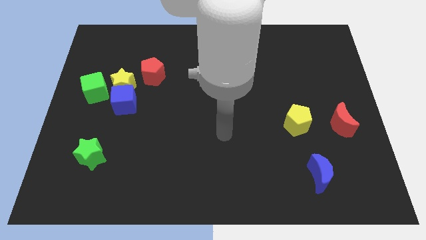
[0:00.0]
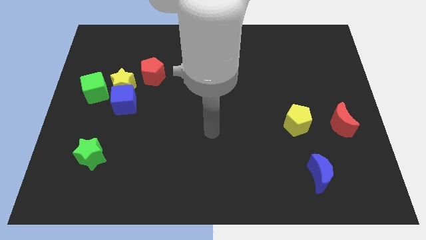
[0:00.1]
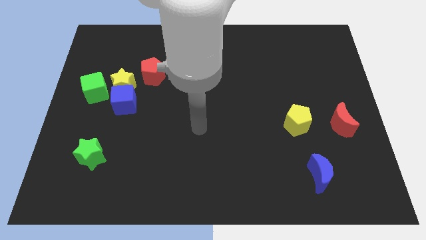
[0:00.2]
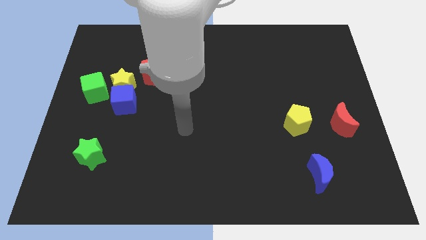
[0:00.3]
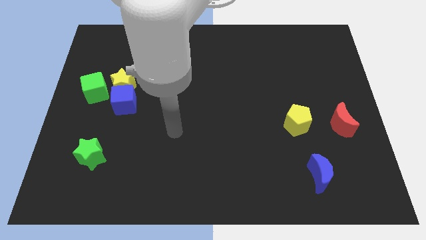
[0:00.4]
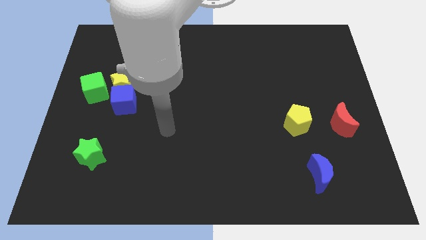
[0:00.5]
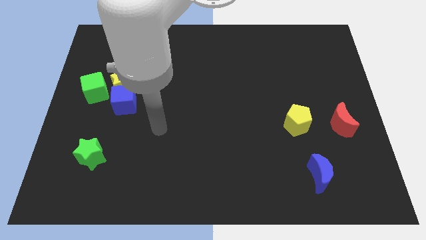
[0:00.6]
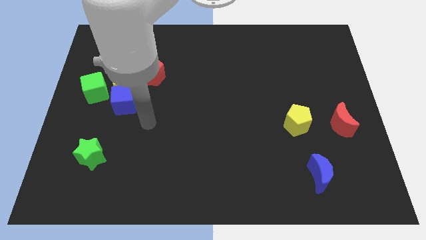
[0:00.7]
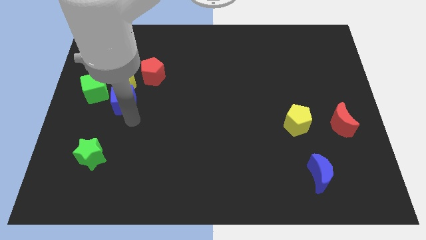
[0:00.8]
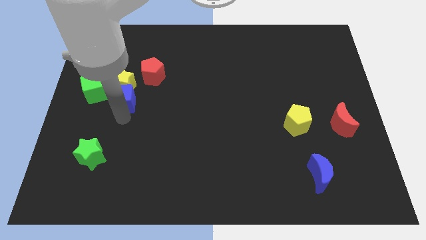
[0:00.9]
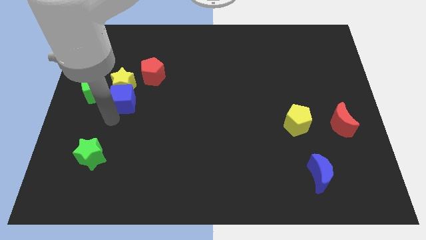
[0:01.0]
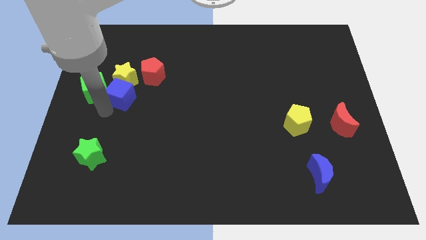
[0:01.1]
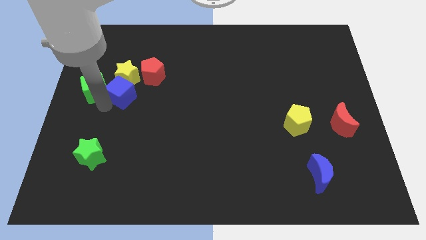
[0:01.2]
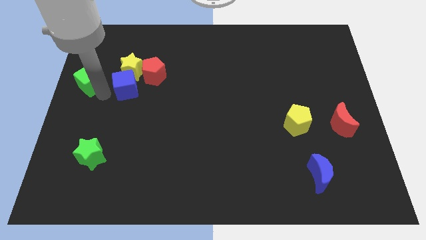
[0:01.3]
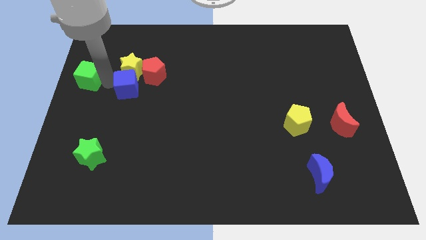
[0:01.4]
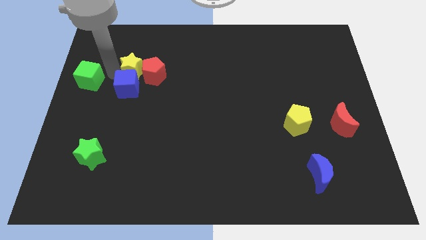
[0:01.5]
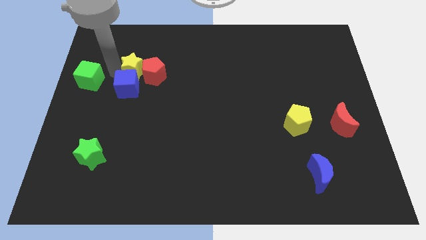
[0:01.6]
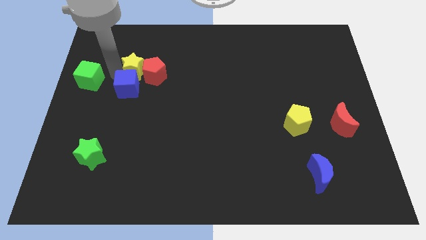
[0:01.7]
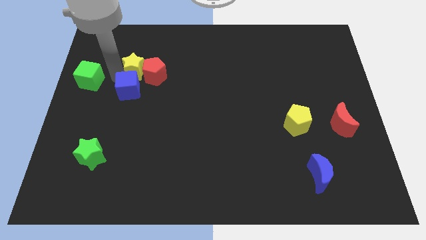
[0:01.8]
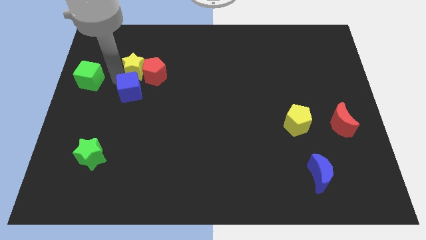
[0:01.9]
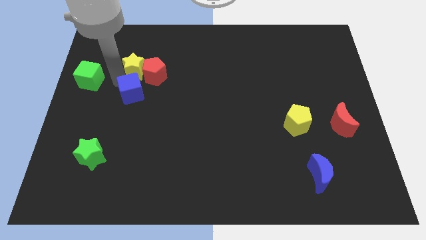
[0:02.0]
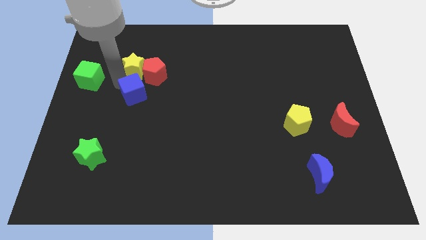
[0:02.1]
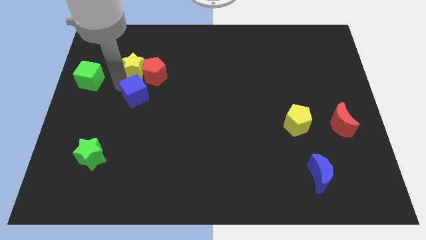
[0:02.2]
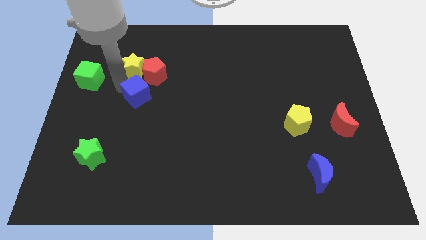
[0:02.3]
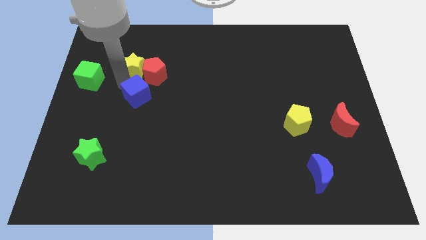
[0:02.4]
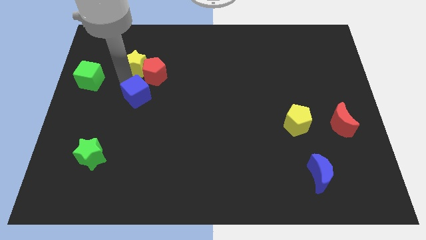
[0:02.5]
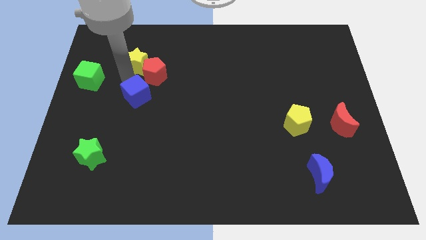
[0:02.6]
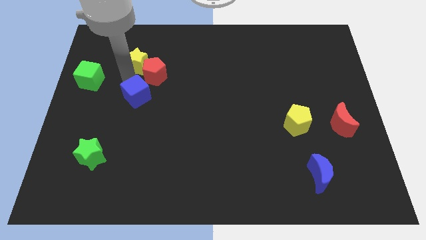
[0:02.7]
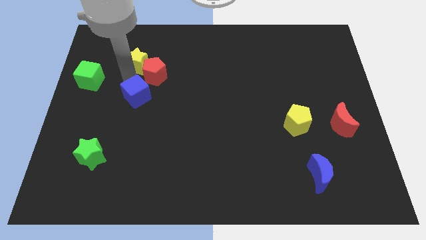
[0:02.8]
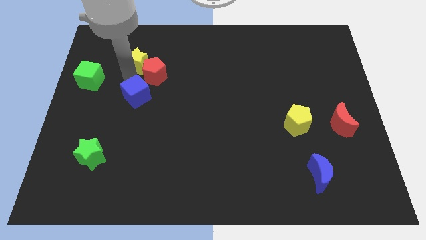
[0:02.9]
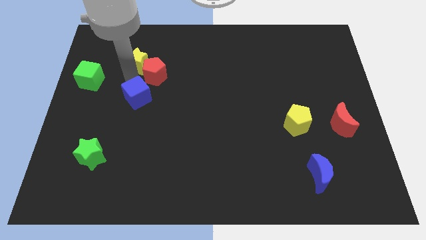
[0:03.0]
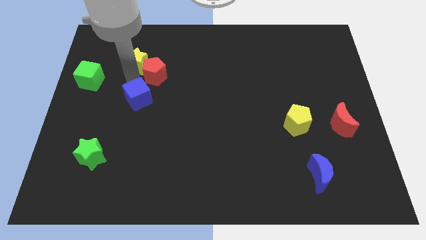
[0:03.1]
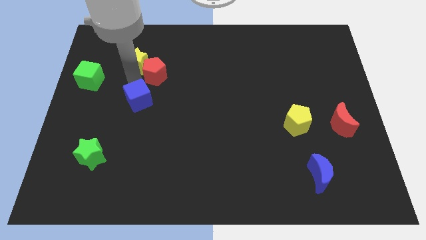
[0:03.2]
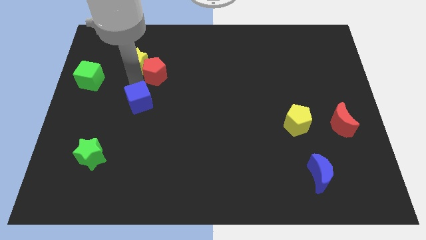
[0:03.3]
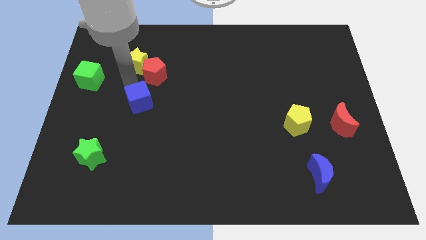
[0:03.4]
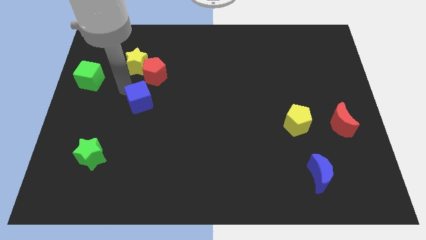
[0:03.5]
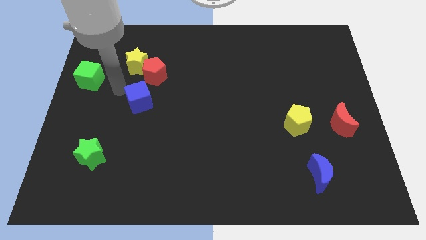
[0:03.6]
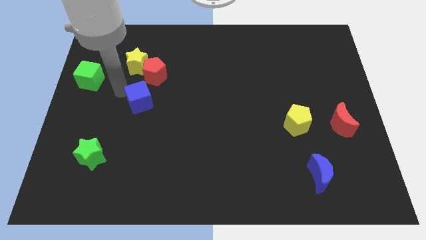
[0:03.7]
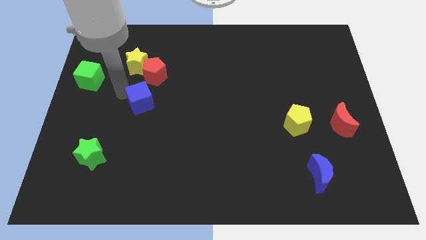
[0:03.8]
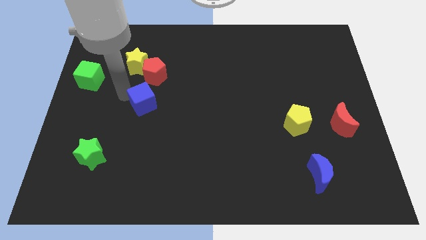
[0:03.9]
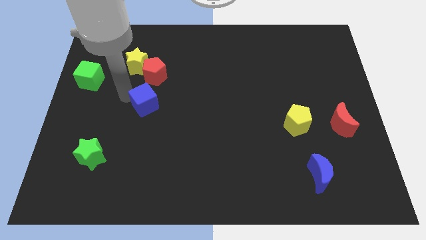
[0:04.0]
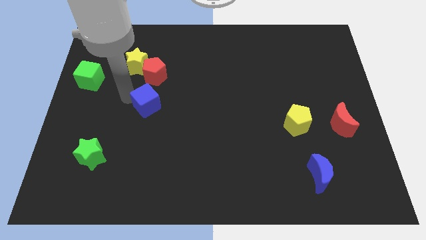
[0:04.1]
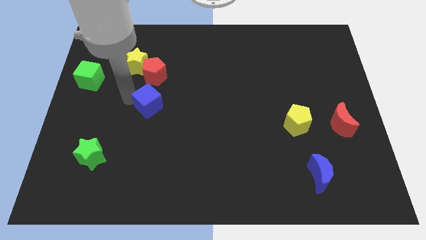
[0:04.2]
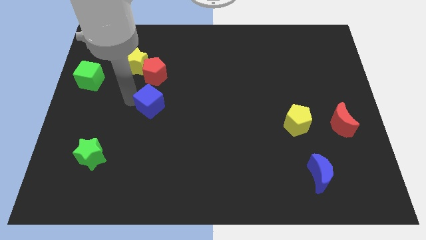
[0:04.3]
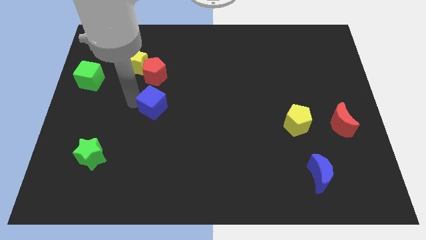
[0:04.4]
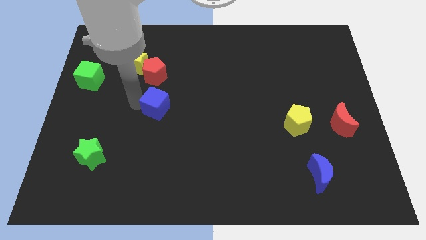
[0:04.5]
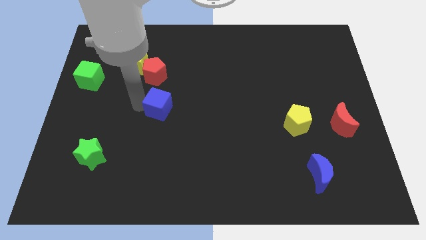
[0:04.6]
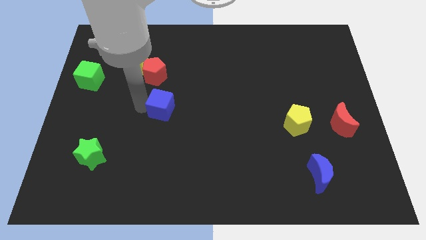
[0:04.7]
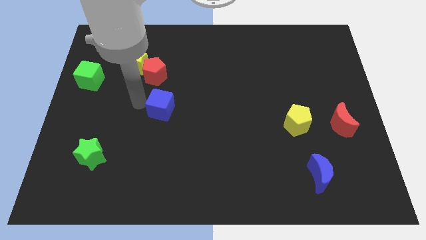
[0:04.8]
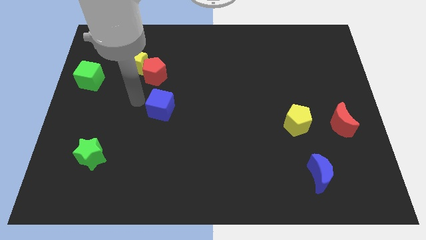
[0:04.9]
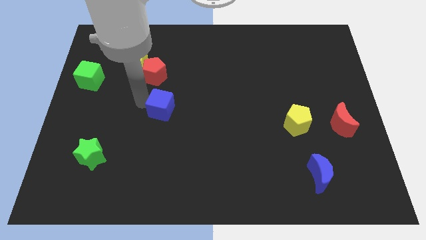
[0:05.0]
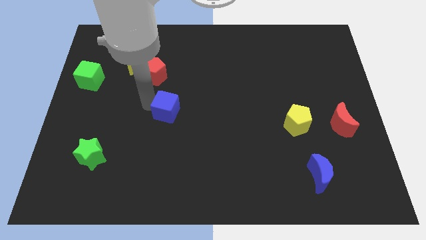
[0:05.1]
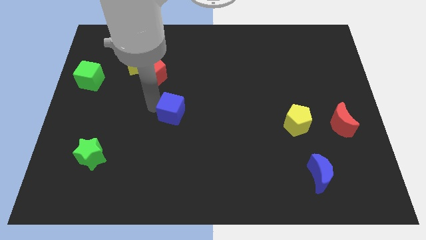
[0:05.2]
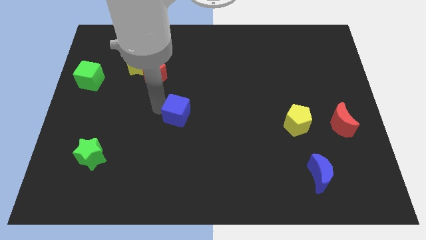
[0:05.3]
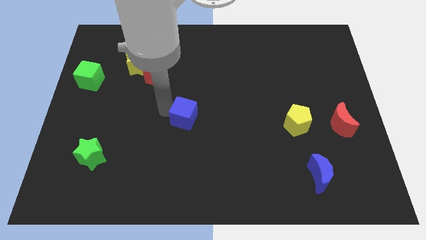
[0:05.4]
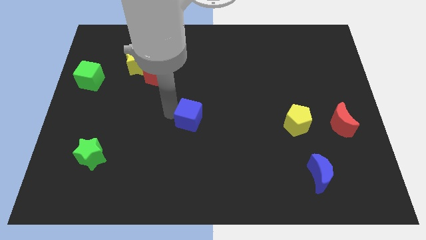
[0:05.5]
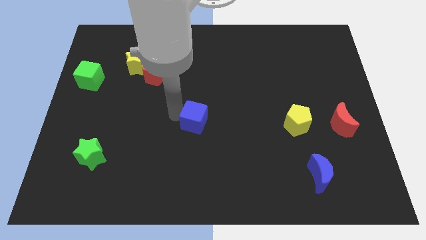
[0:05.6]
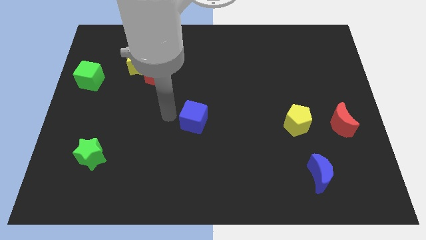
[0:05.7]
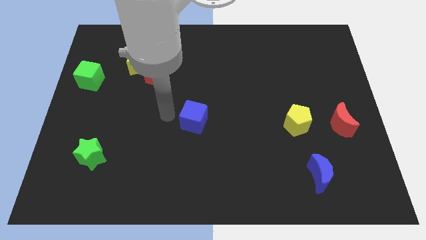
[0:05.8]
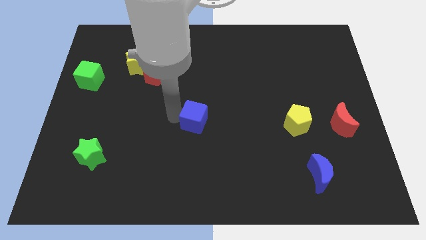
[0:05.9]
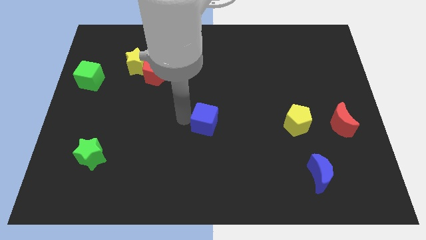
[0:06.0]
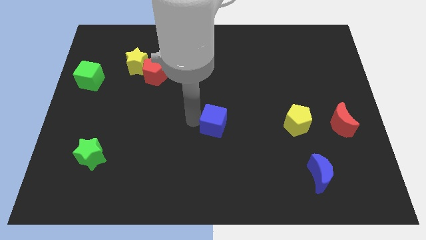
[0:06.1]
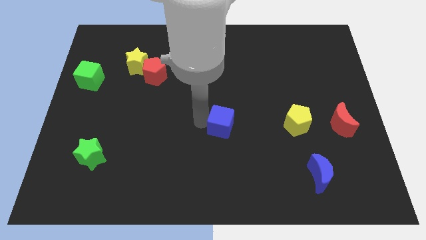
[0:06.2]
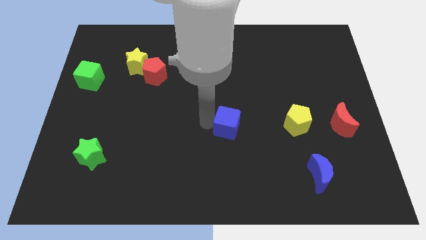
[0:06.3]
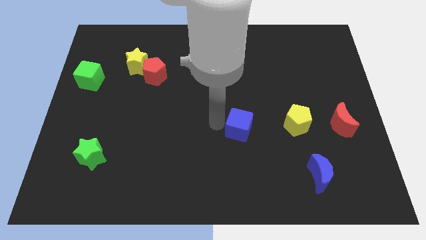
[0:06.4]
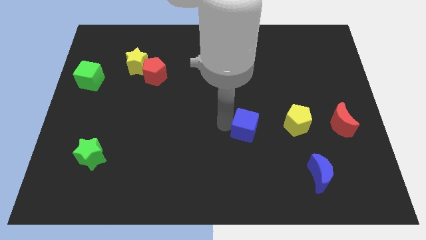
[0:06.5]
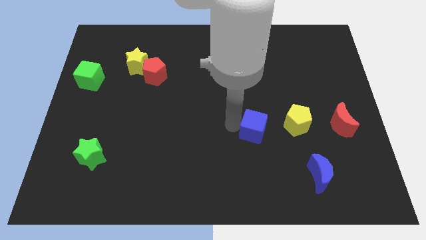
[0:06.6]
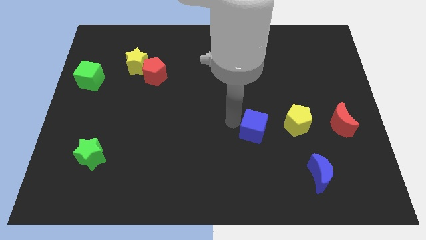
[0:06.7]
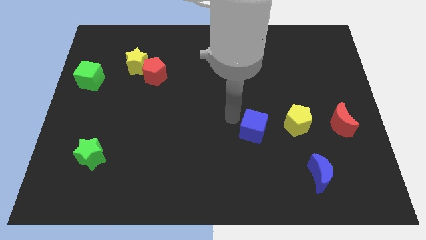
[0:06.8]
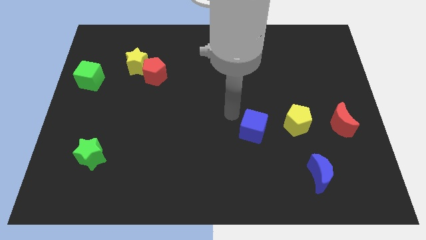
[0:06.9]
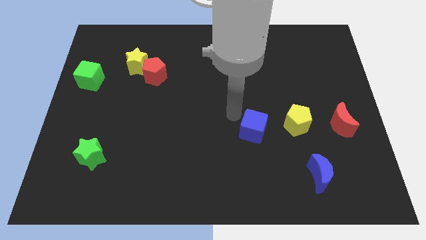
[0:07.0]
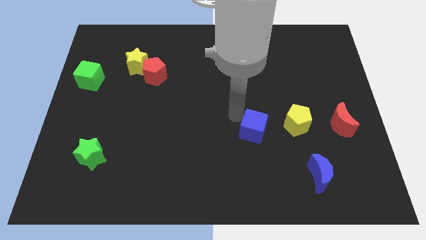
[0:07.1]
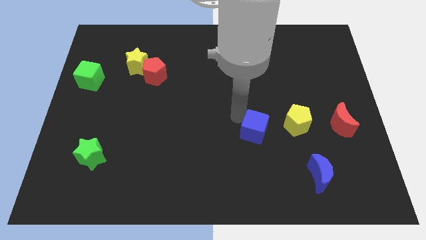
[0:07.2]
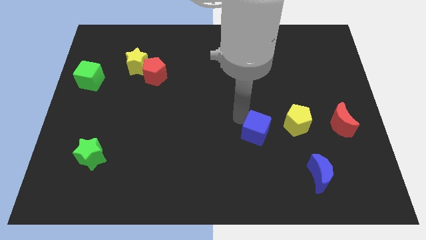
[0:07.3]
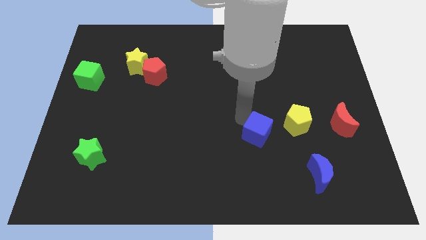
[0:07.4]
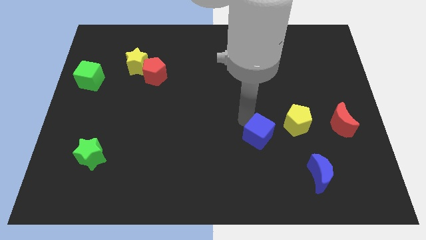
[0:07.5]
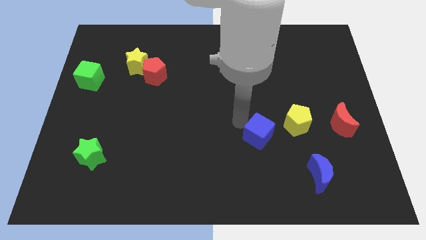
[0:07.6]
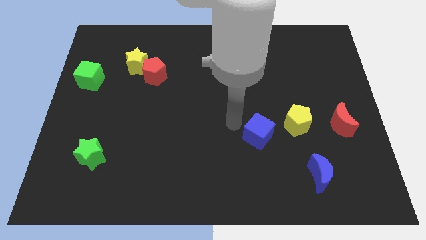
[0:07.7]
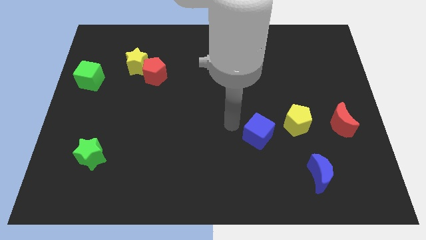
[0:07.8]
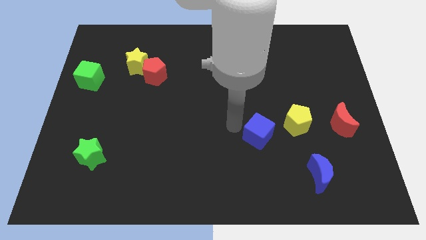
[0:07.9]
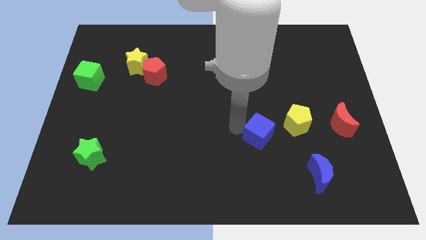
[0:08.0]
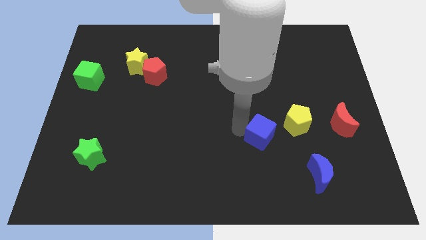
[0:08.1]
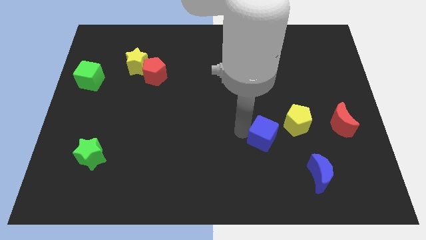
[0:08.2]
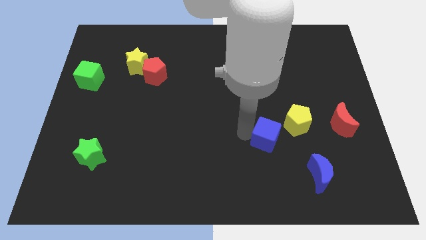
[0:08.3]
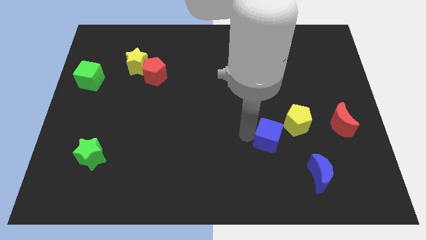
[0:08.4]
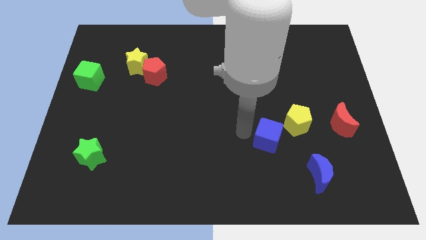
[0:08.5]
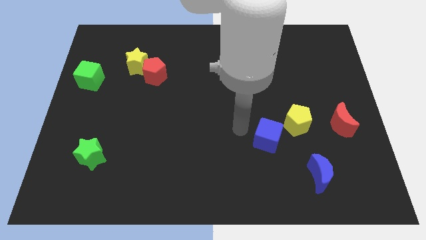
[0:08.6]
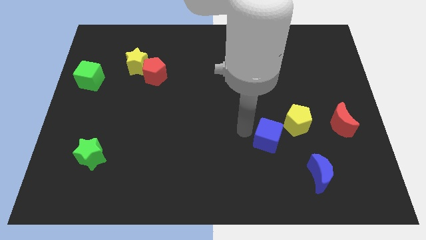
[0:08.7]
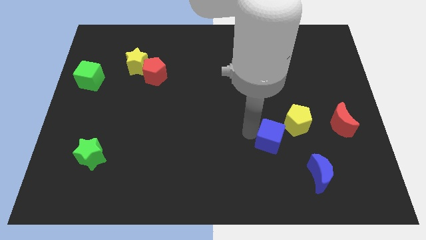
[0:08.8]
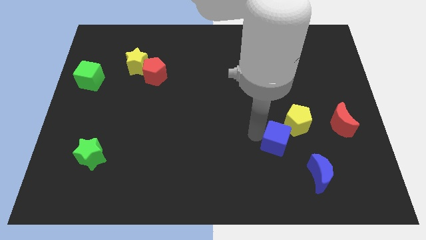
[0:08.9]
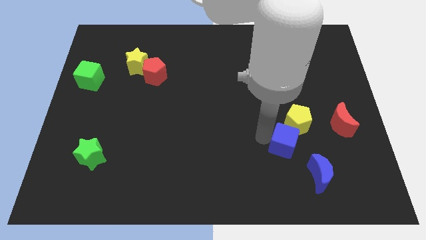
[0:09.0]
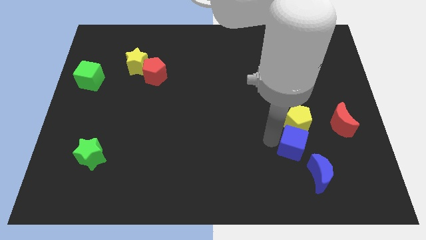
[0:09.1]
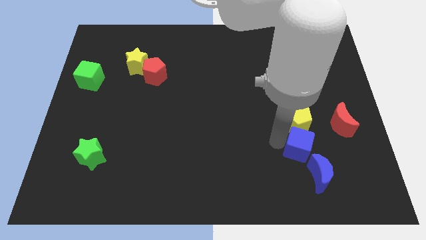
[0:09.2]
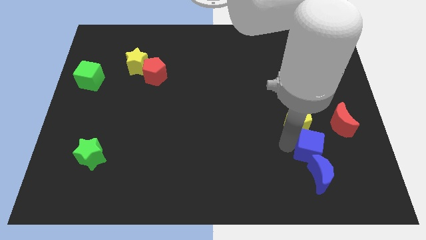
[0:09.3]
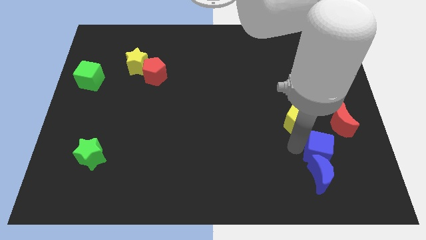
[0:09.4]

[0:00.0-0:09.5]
move the blue cube to the top right of the blue moon
